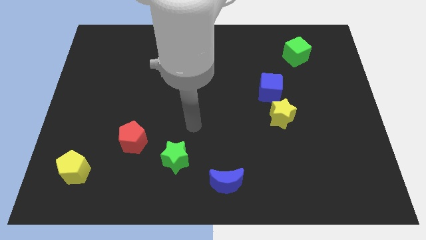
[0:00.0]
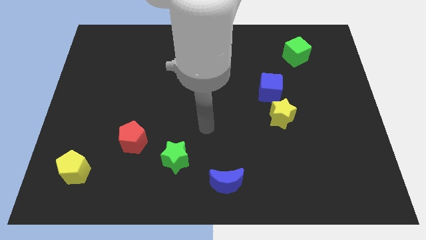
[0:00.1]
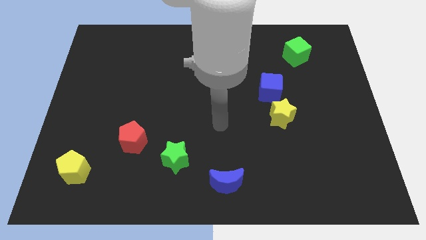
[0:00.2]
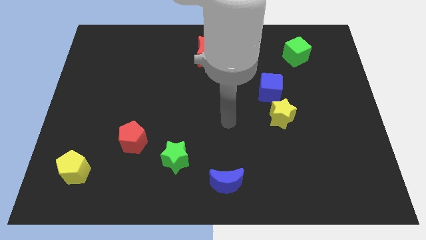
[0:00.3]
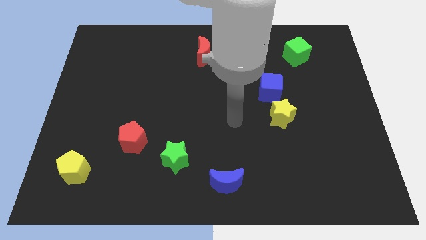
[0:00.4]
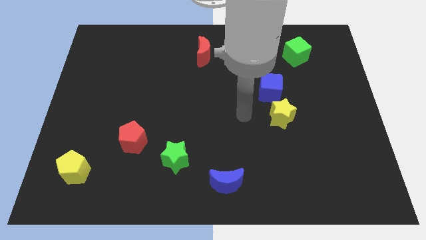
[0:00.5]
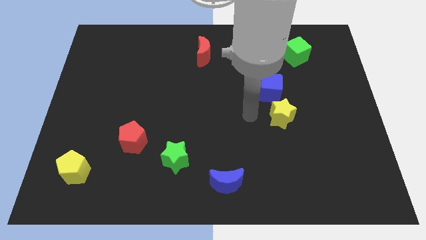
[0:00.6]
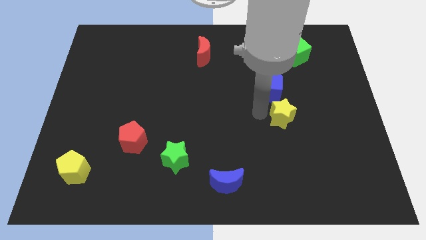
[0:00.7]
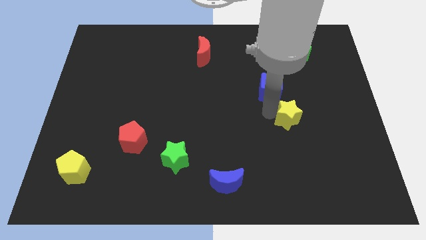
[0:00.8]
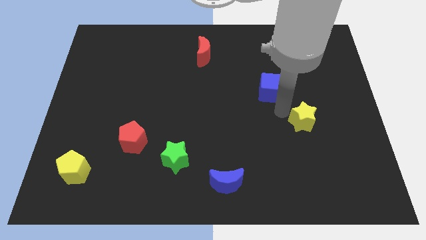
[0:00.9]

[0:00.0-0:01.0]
separate the blue cube from the yellow star

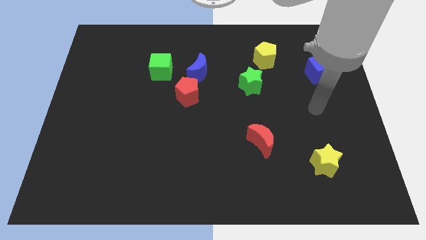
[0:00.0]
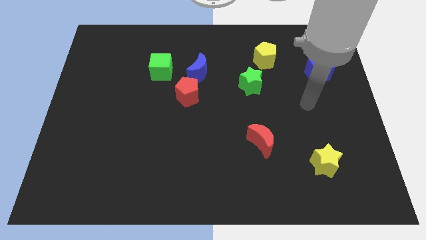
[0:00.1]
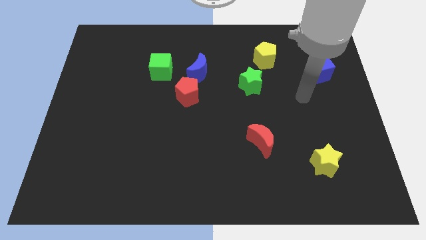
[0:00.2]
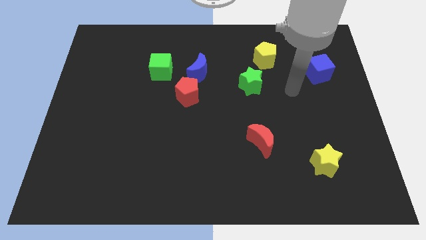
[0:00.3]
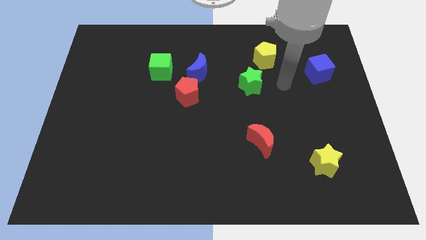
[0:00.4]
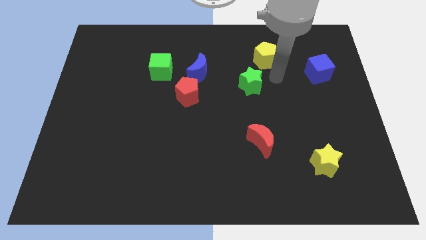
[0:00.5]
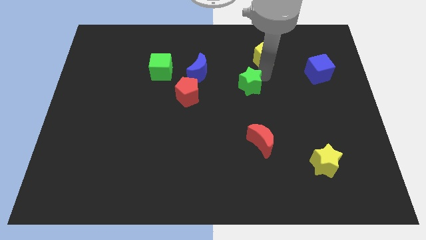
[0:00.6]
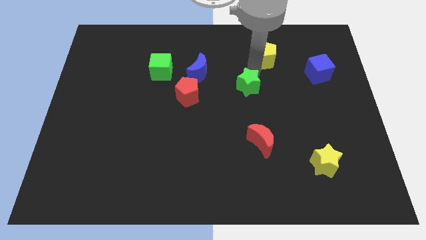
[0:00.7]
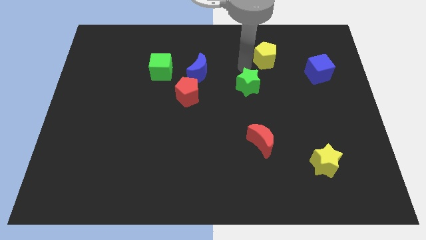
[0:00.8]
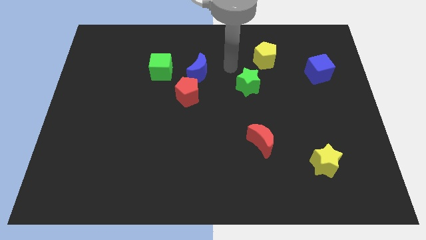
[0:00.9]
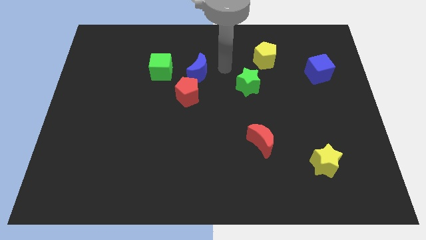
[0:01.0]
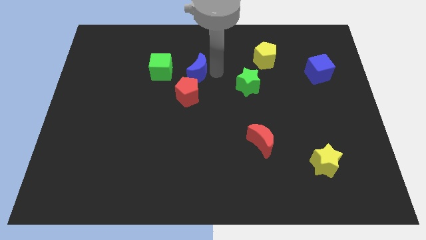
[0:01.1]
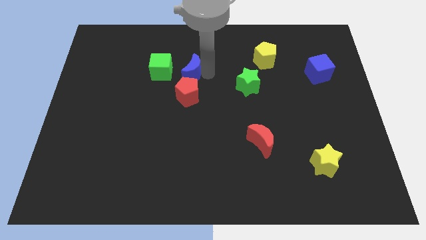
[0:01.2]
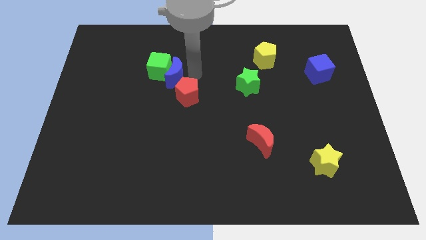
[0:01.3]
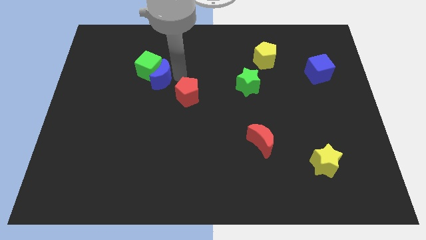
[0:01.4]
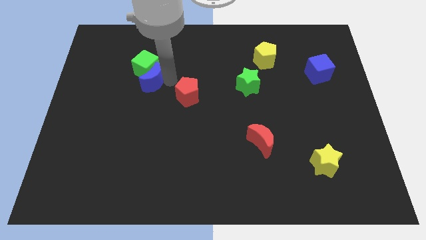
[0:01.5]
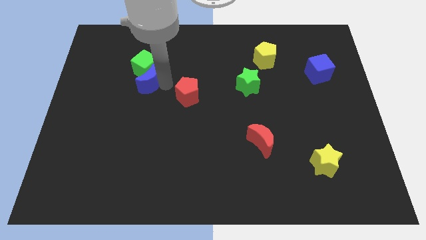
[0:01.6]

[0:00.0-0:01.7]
separate the red pentagon from the blue moon

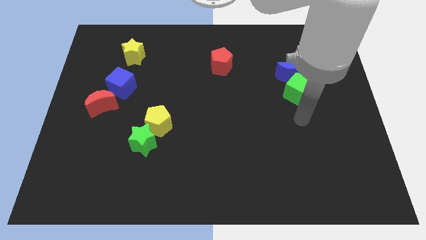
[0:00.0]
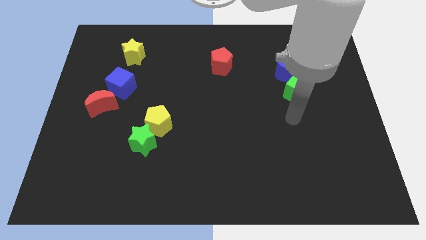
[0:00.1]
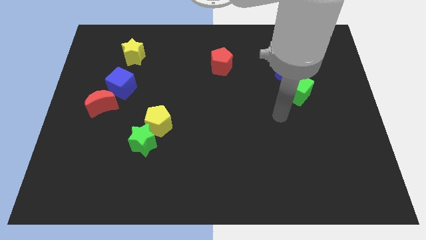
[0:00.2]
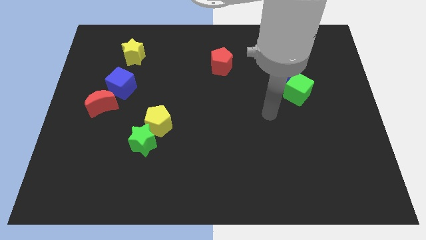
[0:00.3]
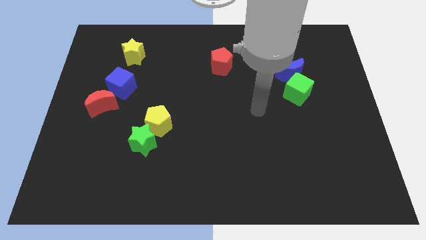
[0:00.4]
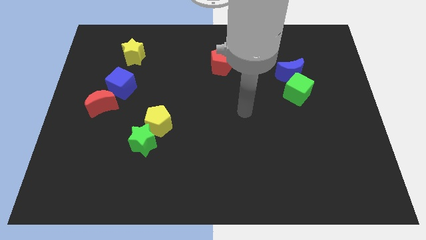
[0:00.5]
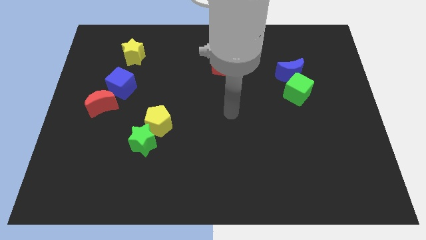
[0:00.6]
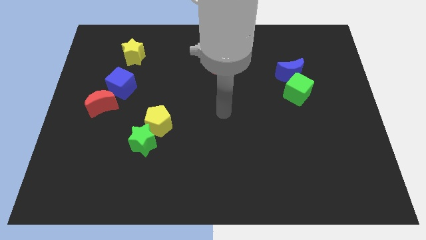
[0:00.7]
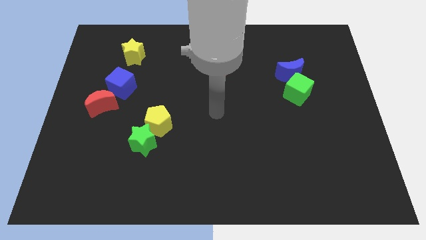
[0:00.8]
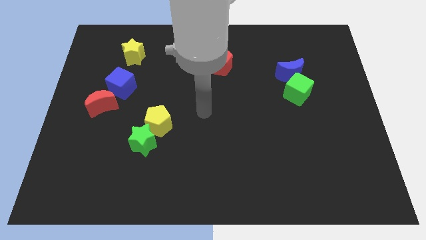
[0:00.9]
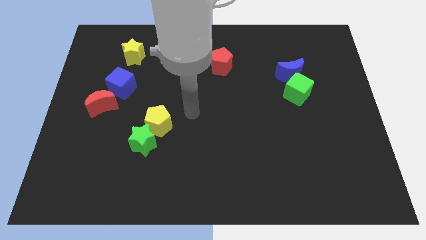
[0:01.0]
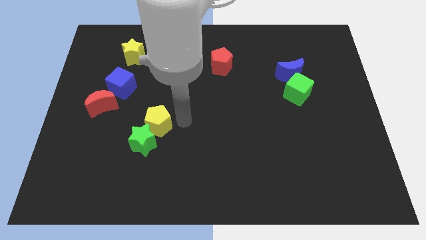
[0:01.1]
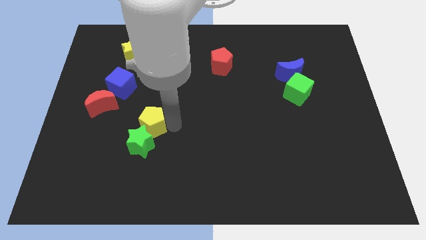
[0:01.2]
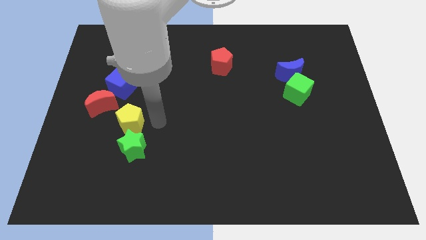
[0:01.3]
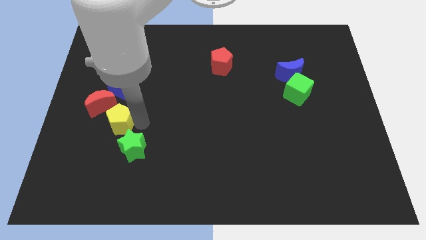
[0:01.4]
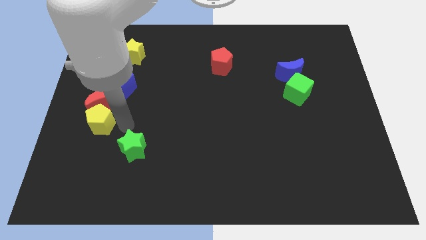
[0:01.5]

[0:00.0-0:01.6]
pull the green star apart from the yellow pentagon

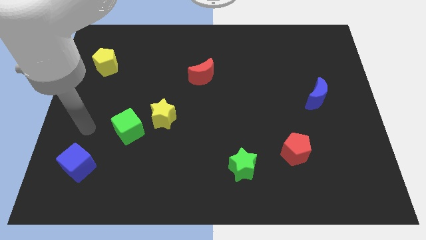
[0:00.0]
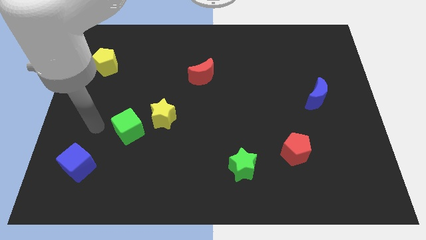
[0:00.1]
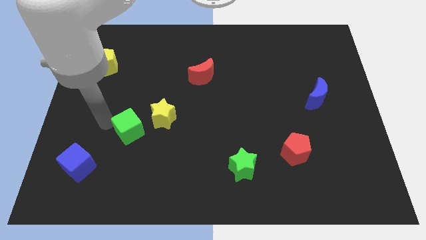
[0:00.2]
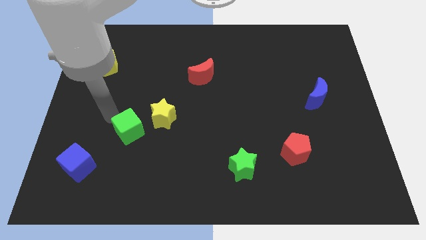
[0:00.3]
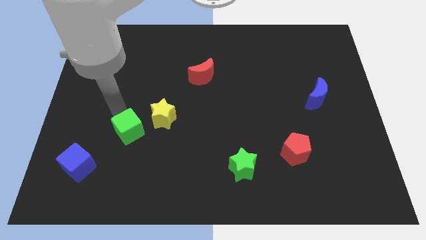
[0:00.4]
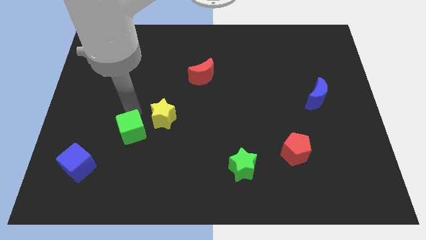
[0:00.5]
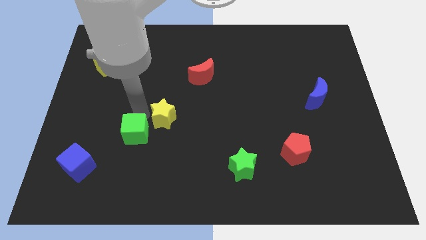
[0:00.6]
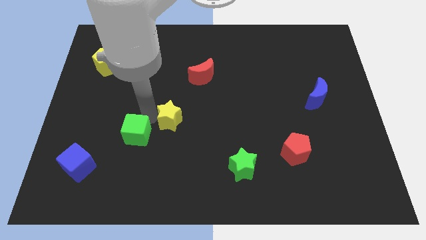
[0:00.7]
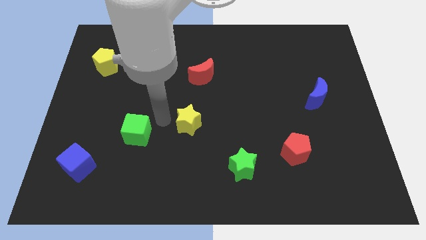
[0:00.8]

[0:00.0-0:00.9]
separate the green cube from the yellow star

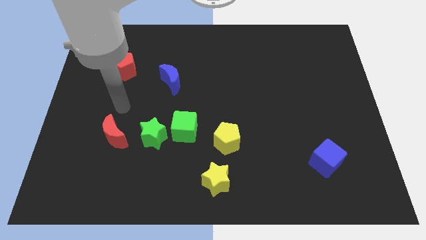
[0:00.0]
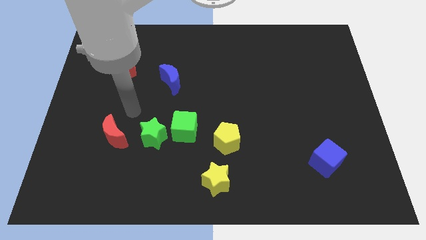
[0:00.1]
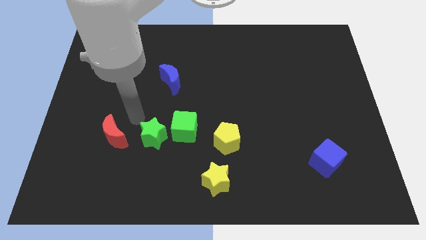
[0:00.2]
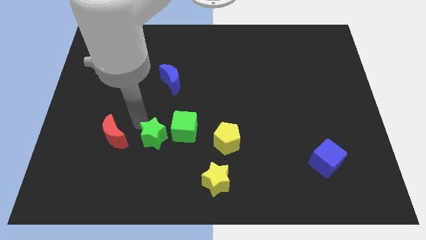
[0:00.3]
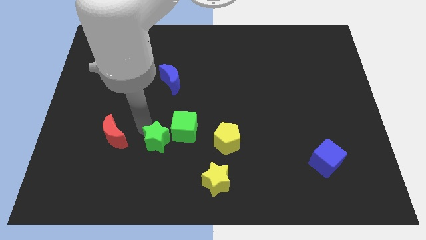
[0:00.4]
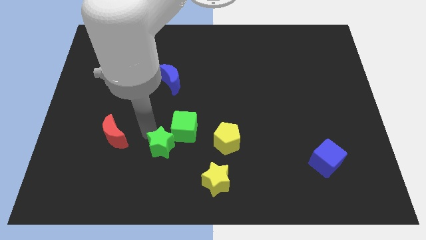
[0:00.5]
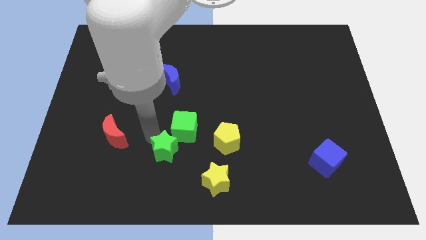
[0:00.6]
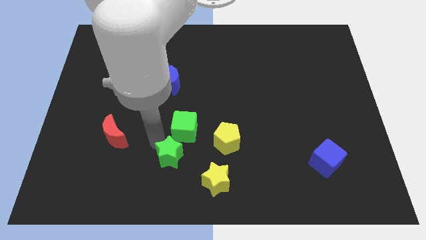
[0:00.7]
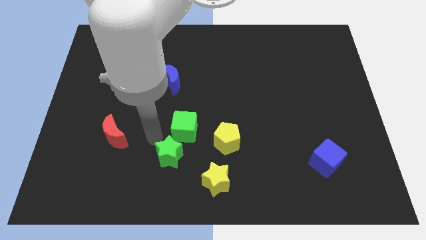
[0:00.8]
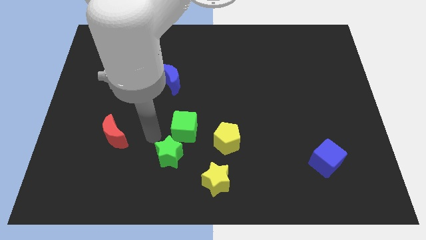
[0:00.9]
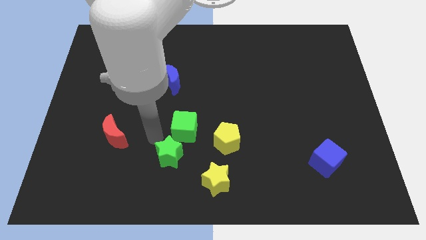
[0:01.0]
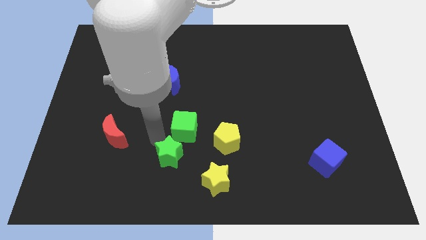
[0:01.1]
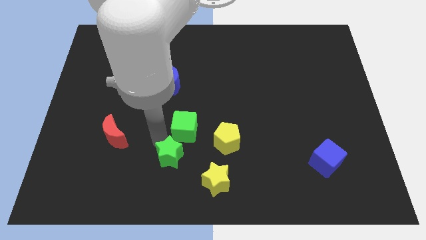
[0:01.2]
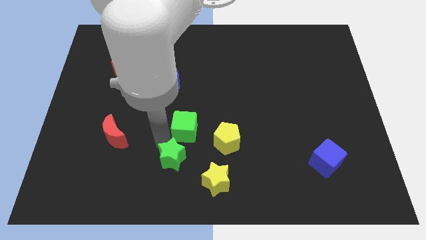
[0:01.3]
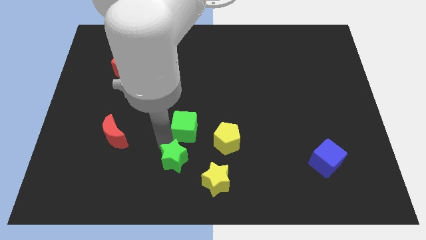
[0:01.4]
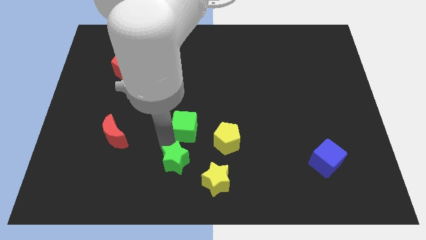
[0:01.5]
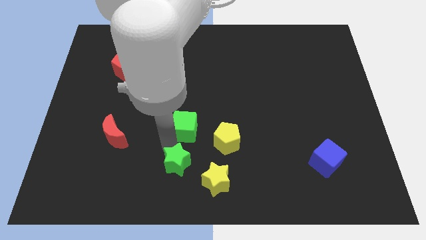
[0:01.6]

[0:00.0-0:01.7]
pull the green star apart from the green cube and red moon

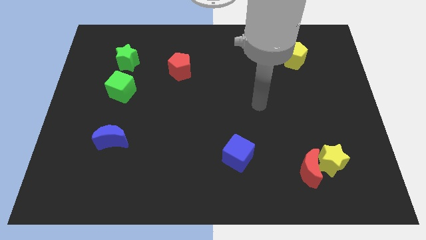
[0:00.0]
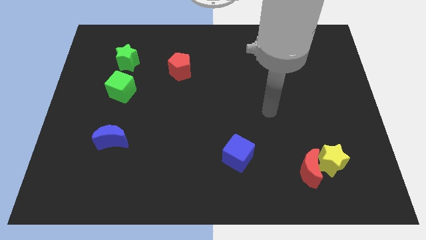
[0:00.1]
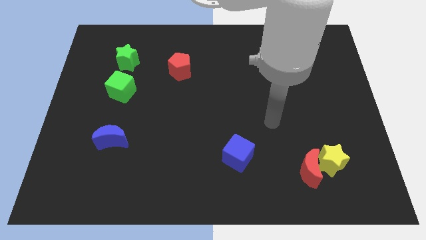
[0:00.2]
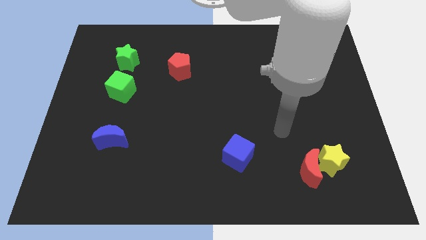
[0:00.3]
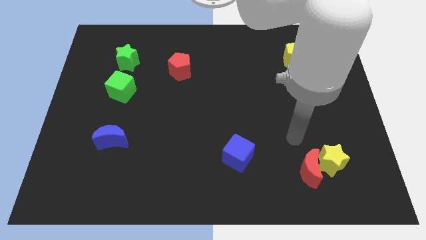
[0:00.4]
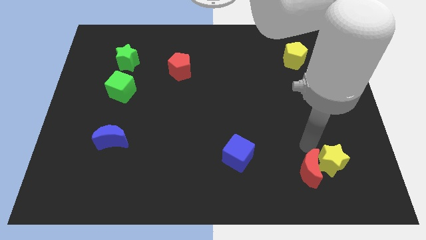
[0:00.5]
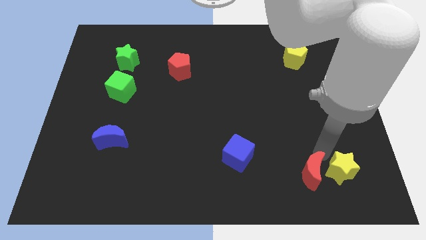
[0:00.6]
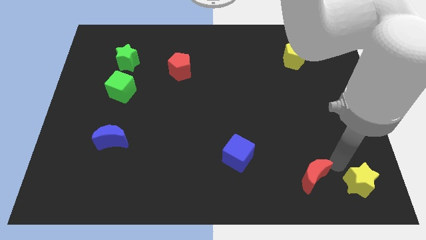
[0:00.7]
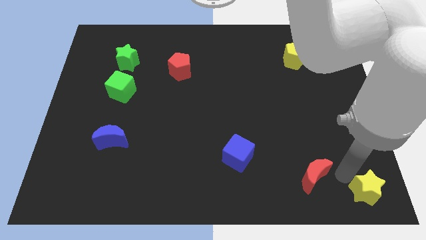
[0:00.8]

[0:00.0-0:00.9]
pull the red moon apart from the yellow star

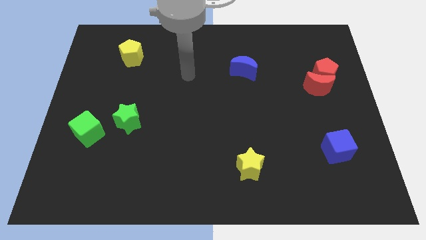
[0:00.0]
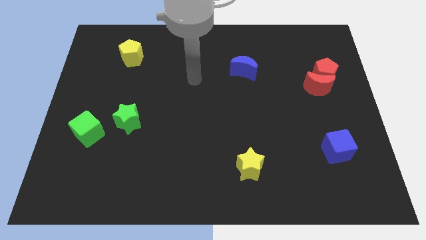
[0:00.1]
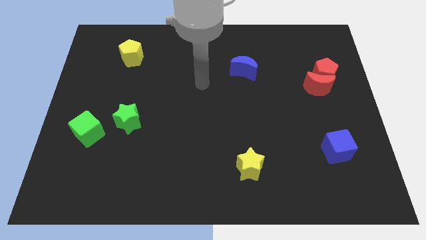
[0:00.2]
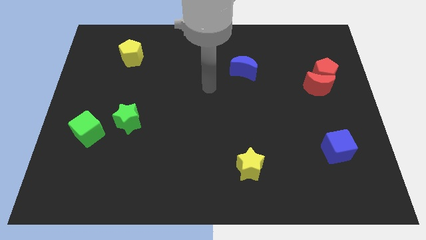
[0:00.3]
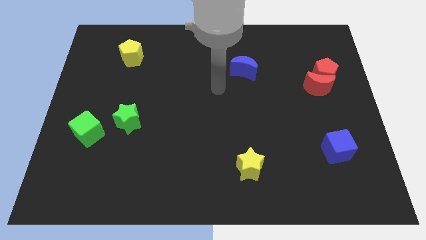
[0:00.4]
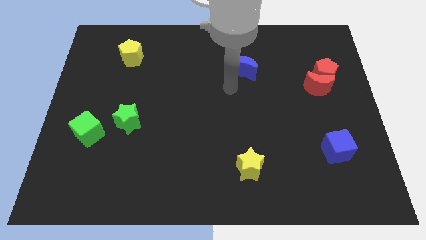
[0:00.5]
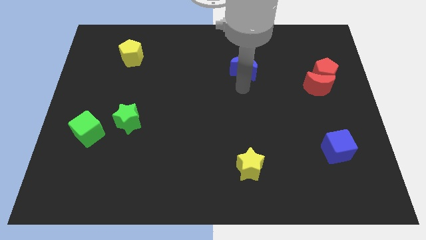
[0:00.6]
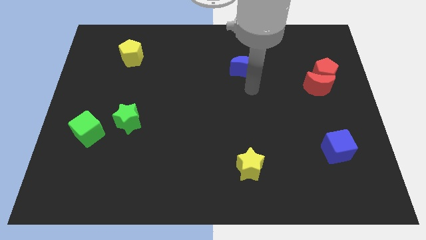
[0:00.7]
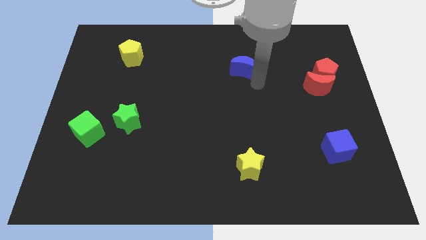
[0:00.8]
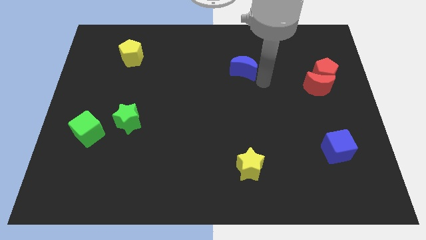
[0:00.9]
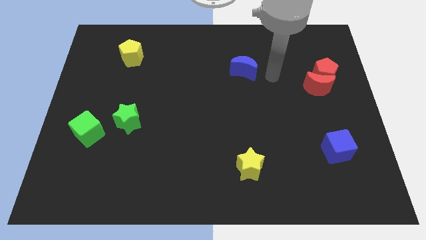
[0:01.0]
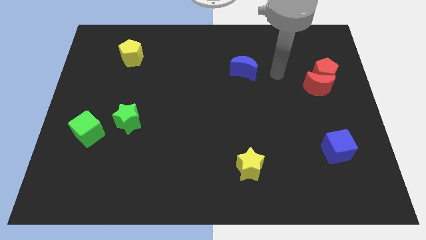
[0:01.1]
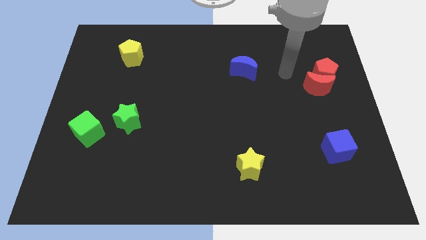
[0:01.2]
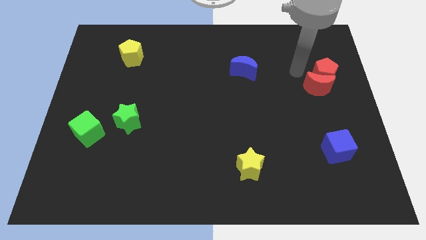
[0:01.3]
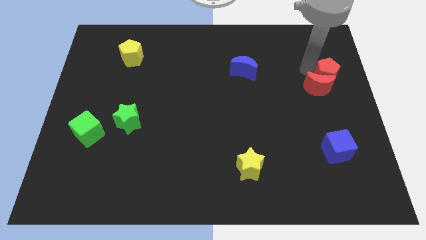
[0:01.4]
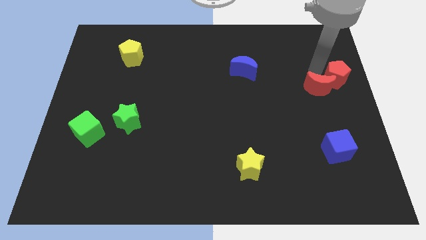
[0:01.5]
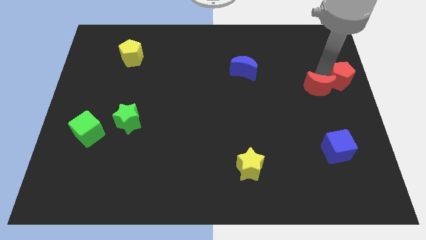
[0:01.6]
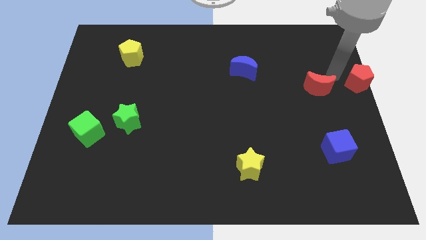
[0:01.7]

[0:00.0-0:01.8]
move the red moon away from the red pentagon
